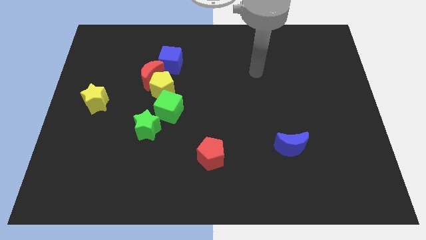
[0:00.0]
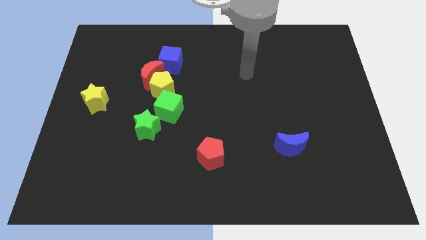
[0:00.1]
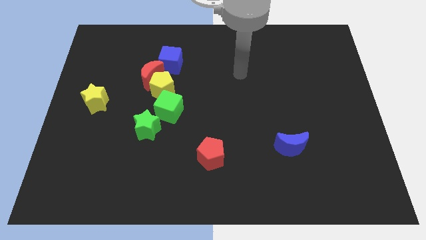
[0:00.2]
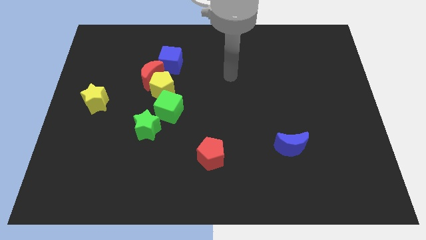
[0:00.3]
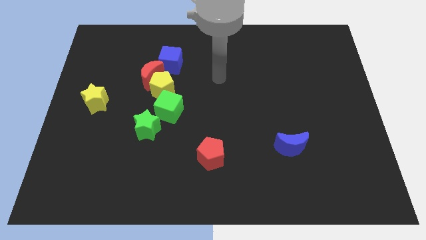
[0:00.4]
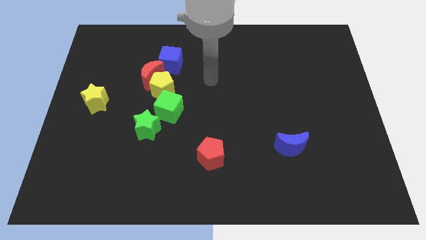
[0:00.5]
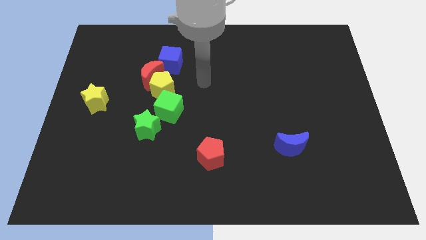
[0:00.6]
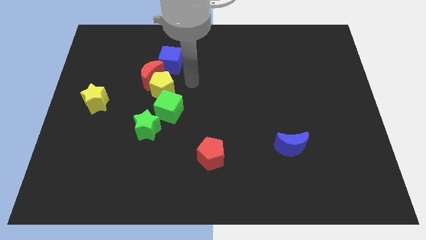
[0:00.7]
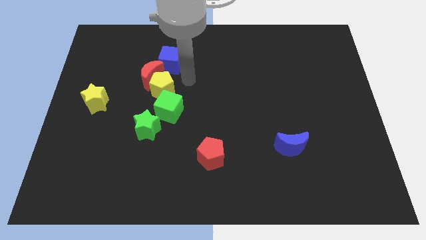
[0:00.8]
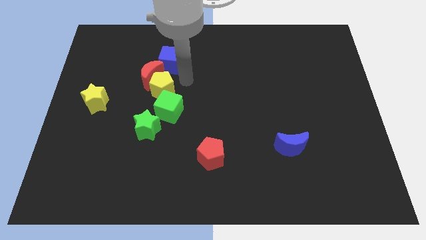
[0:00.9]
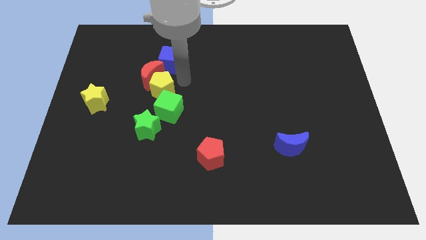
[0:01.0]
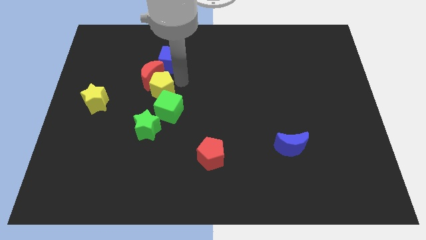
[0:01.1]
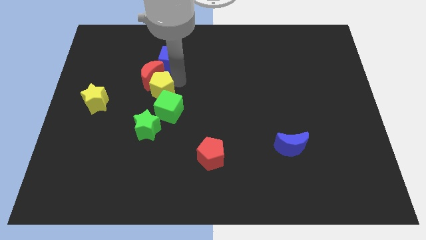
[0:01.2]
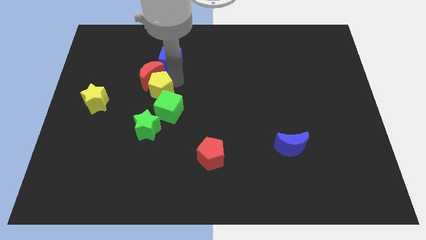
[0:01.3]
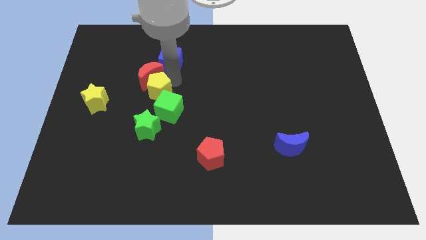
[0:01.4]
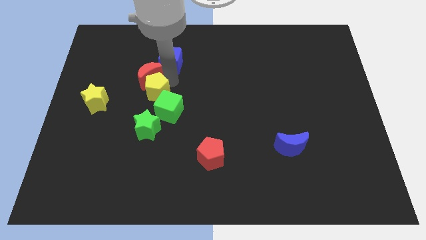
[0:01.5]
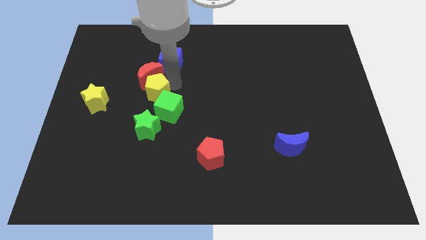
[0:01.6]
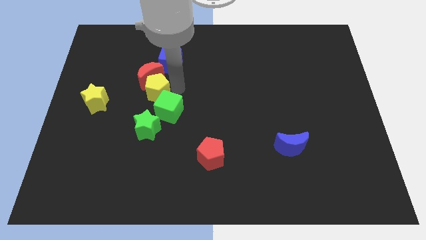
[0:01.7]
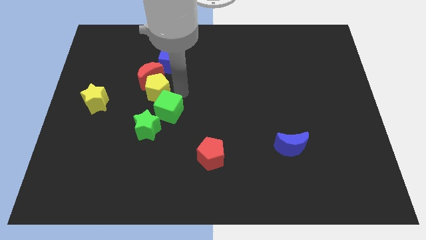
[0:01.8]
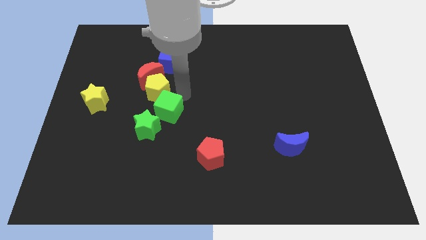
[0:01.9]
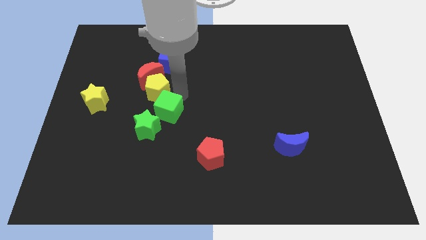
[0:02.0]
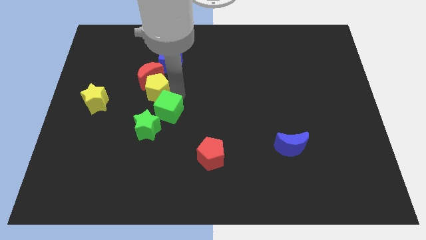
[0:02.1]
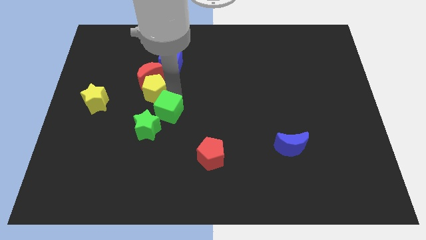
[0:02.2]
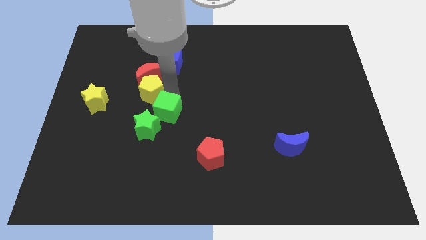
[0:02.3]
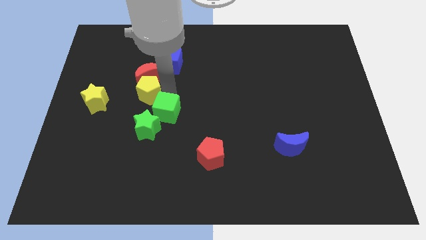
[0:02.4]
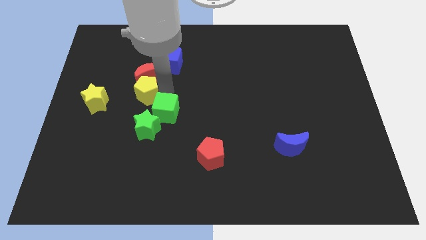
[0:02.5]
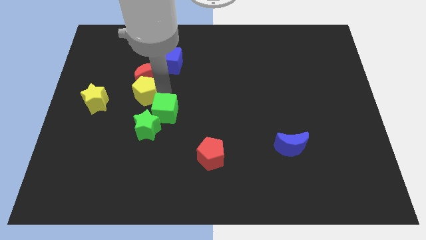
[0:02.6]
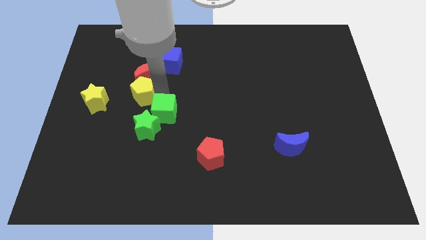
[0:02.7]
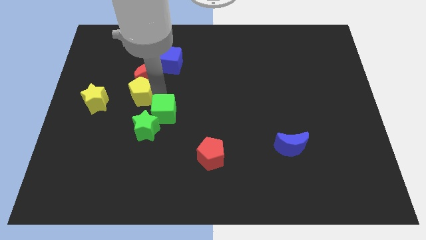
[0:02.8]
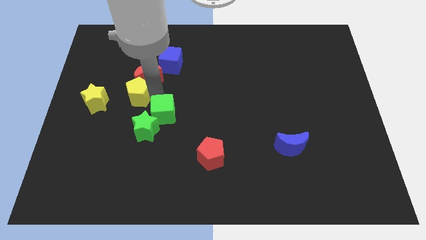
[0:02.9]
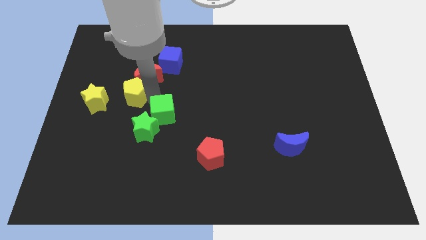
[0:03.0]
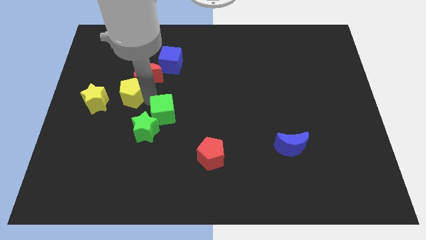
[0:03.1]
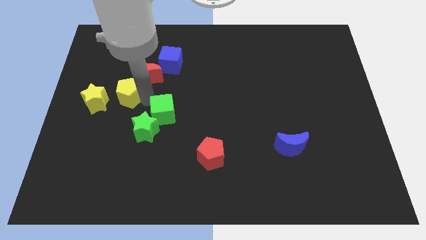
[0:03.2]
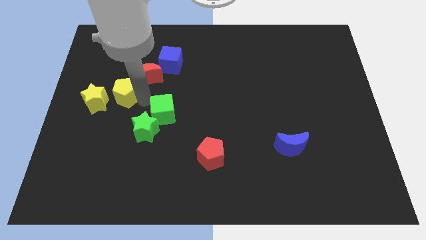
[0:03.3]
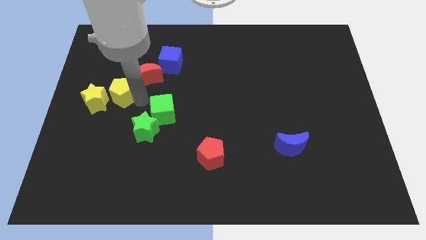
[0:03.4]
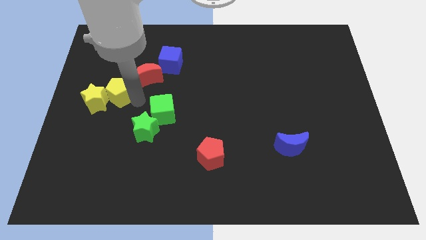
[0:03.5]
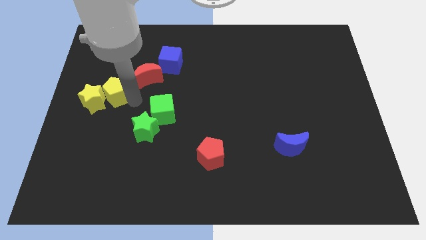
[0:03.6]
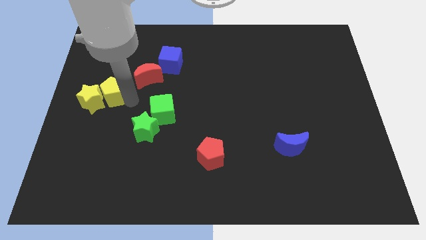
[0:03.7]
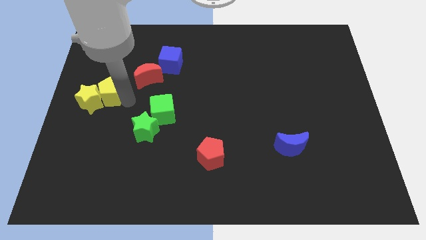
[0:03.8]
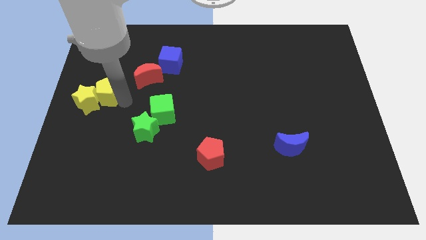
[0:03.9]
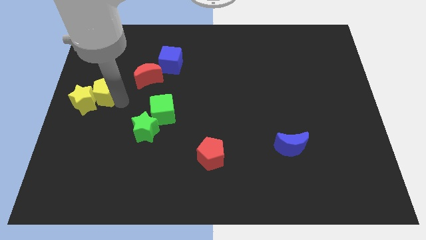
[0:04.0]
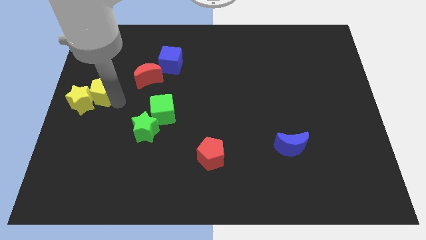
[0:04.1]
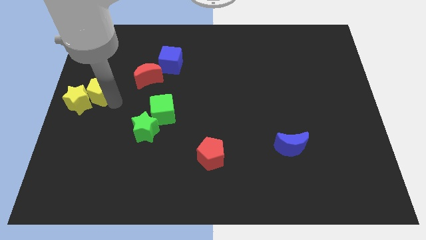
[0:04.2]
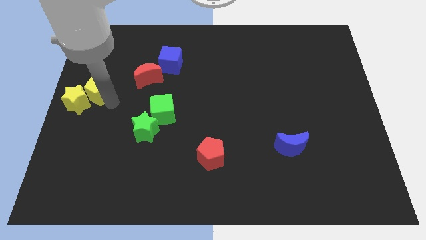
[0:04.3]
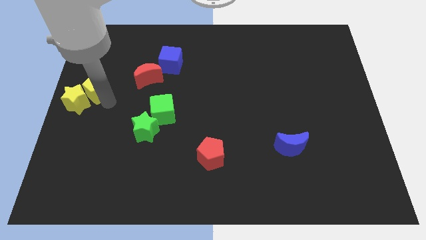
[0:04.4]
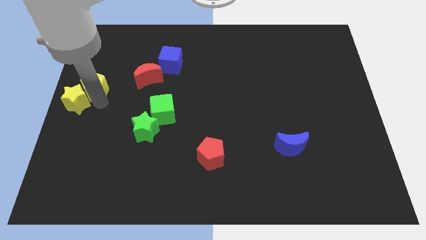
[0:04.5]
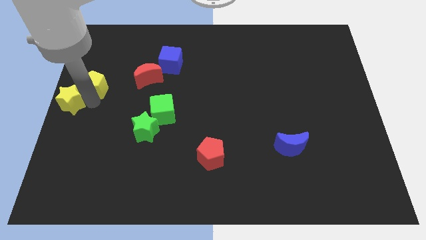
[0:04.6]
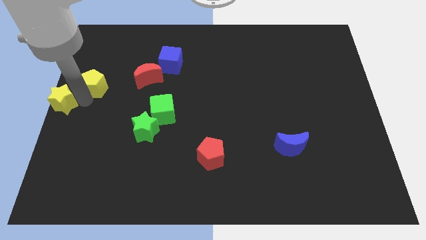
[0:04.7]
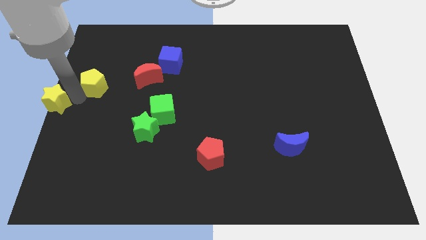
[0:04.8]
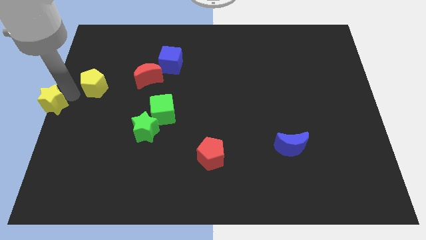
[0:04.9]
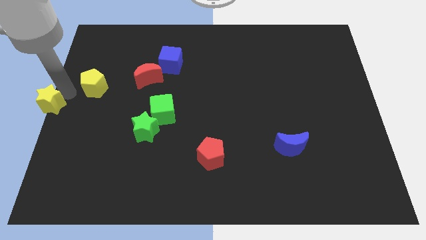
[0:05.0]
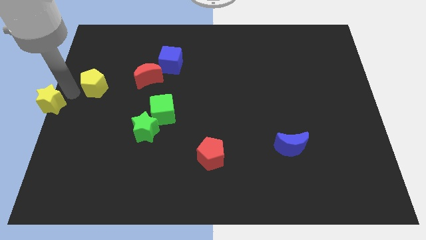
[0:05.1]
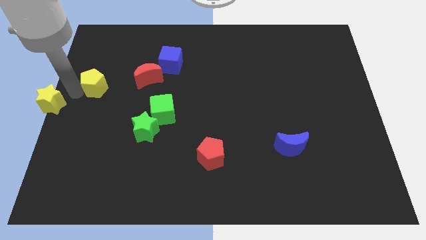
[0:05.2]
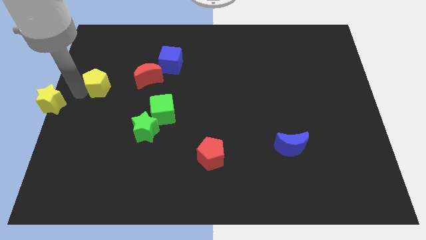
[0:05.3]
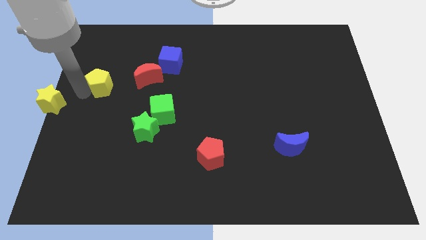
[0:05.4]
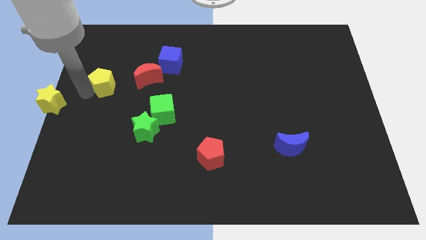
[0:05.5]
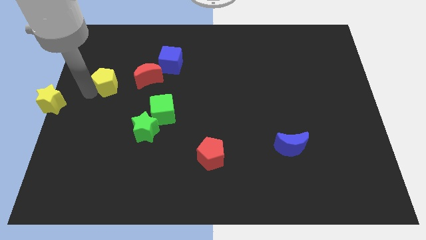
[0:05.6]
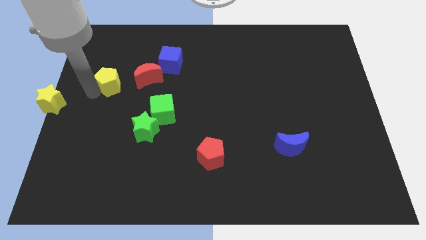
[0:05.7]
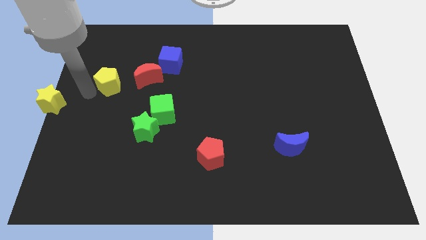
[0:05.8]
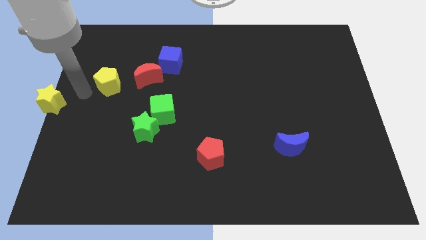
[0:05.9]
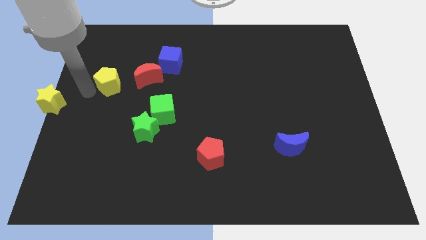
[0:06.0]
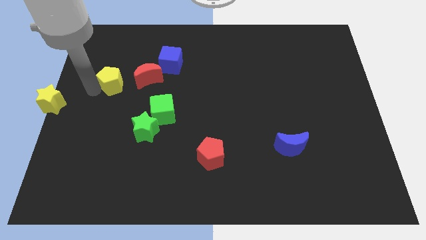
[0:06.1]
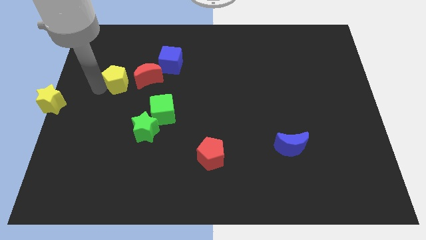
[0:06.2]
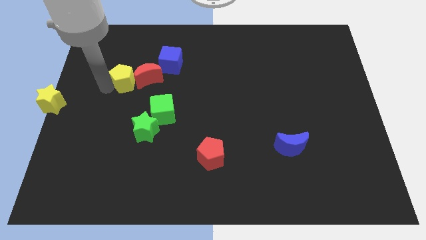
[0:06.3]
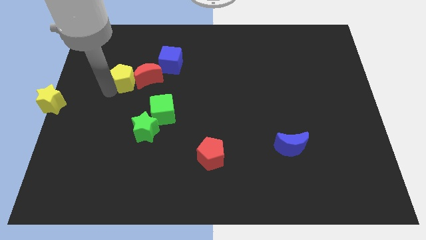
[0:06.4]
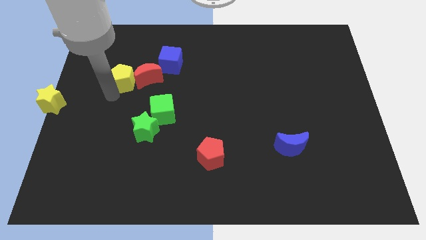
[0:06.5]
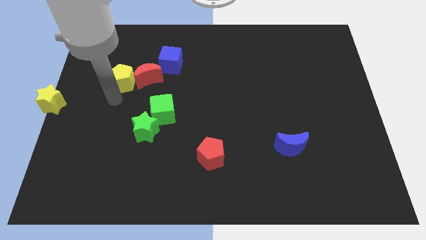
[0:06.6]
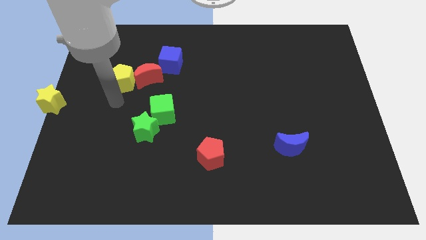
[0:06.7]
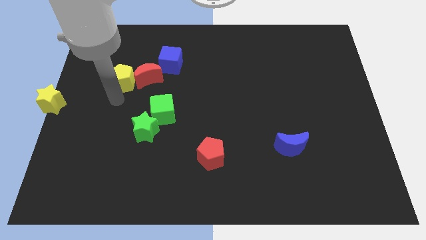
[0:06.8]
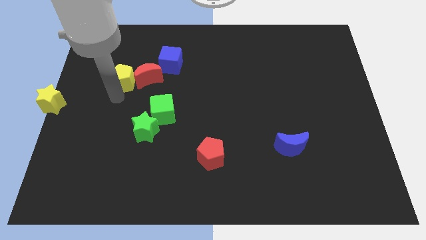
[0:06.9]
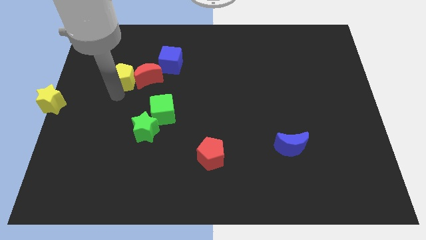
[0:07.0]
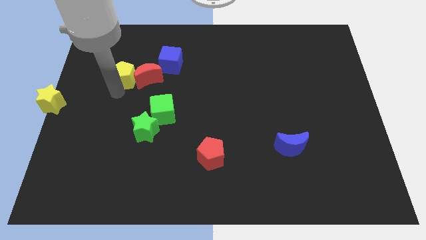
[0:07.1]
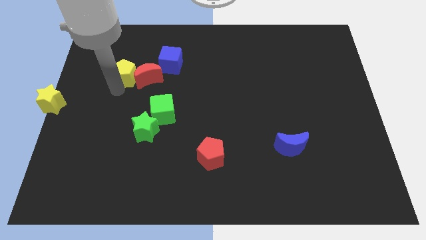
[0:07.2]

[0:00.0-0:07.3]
push the yellow pentagon just left of the blue cube
